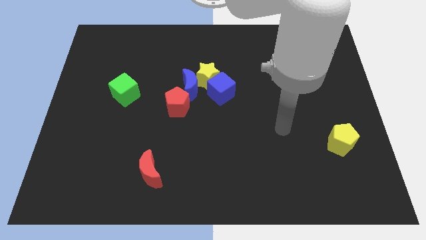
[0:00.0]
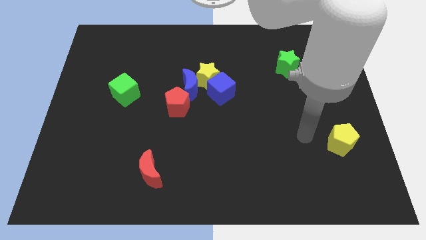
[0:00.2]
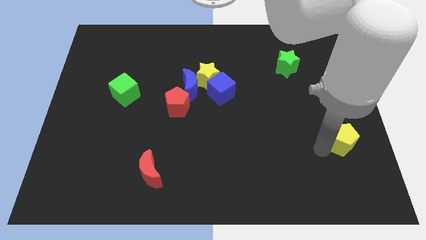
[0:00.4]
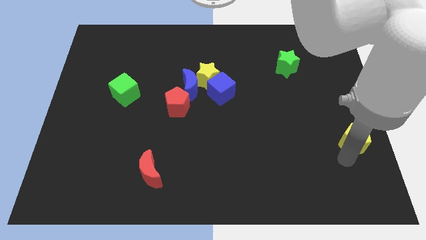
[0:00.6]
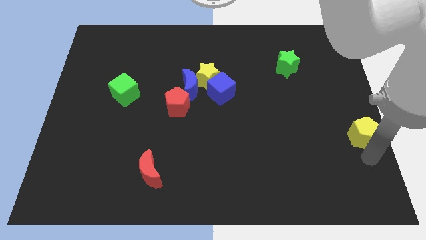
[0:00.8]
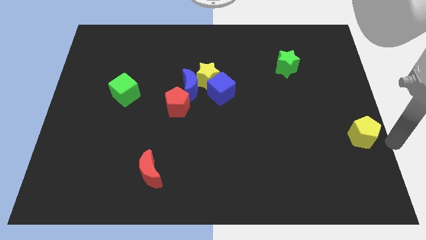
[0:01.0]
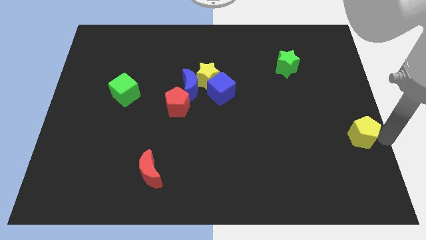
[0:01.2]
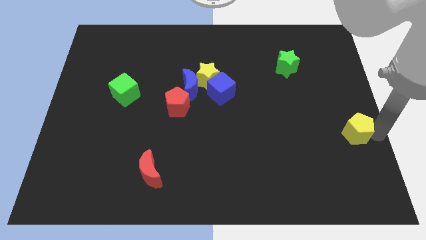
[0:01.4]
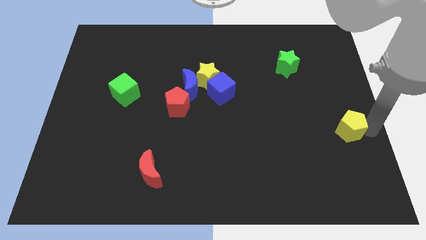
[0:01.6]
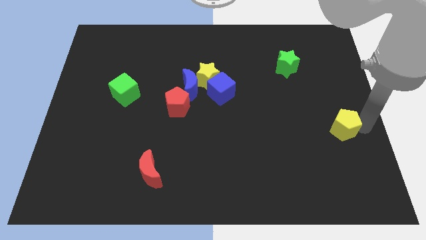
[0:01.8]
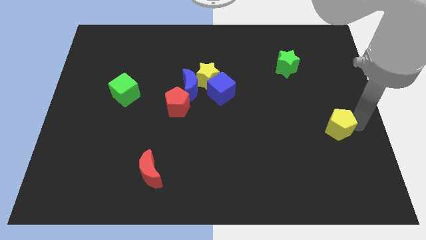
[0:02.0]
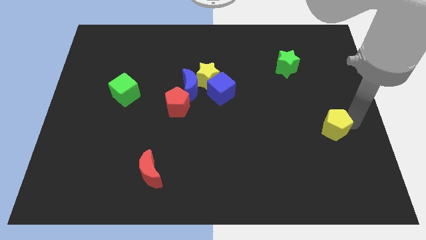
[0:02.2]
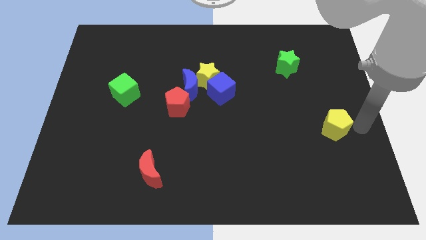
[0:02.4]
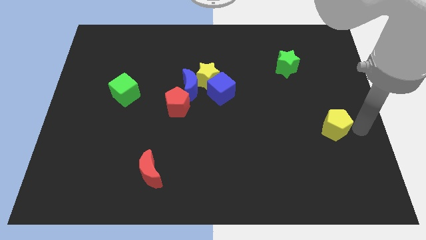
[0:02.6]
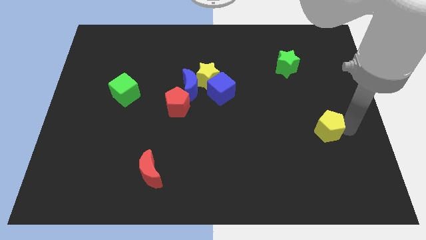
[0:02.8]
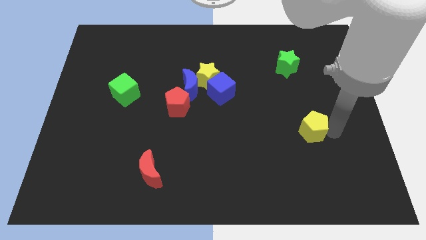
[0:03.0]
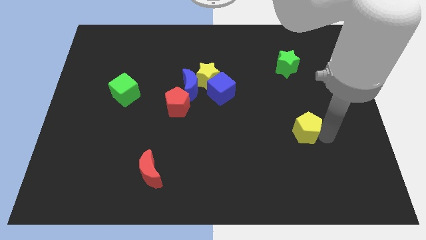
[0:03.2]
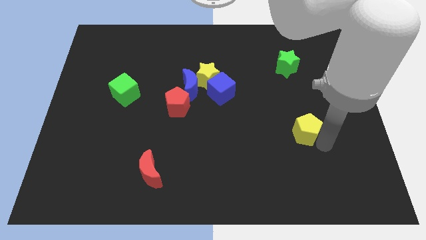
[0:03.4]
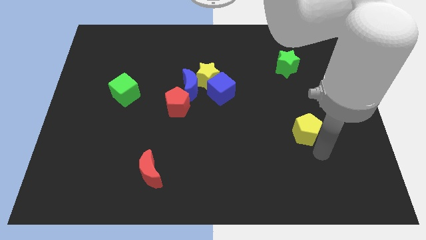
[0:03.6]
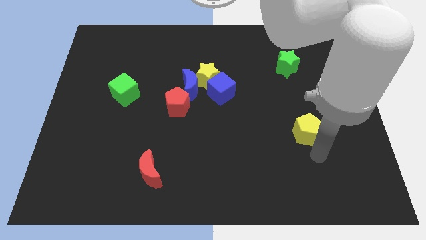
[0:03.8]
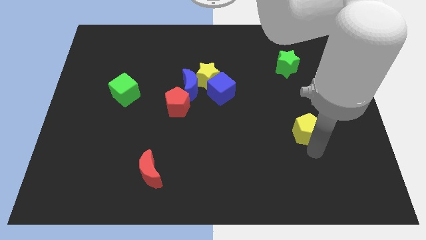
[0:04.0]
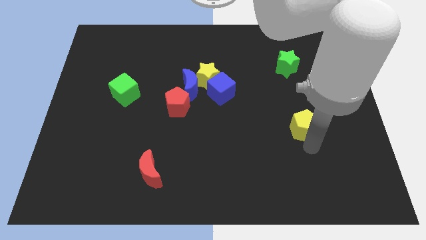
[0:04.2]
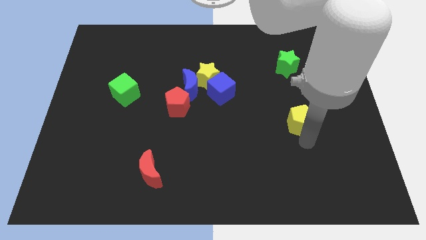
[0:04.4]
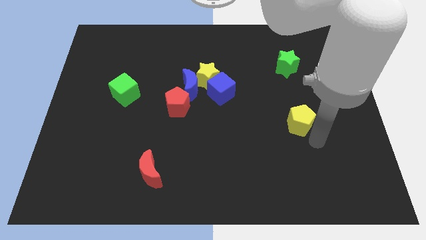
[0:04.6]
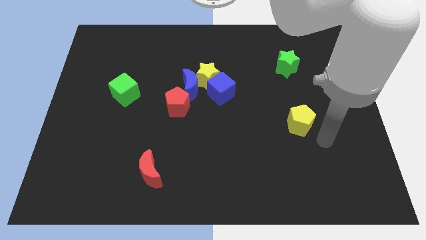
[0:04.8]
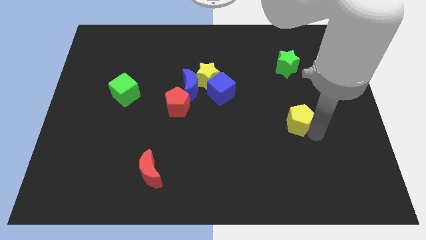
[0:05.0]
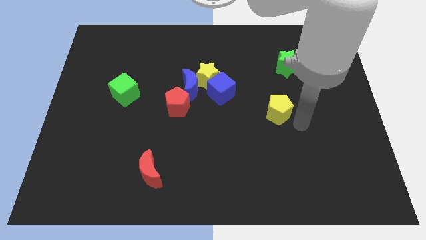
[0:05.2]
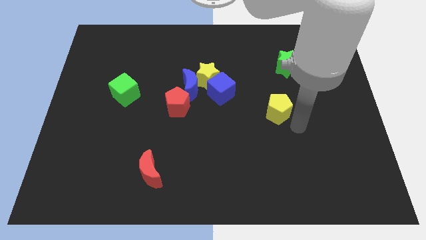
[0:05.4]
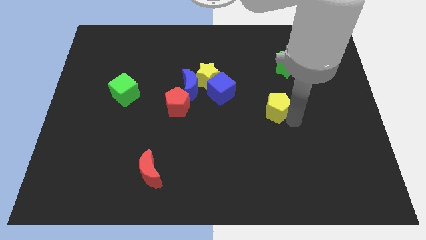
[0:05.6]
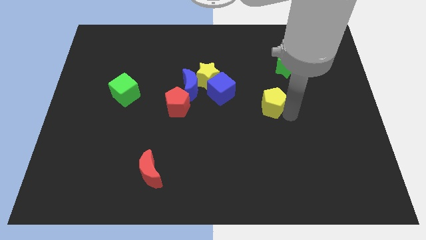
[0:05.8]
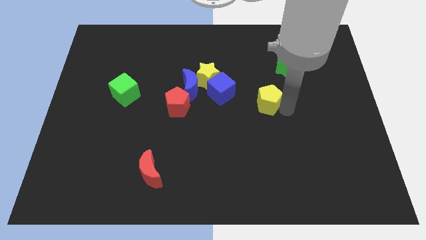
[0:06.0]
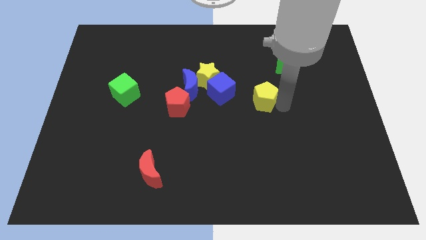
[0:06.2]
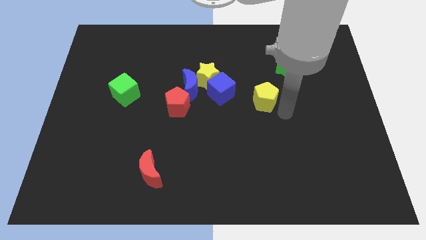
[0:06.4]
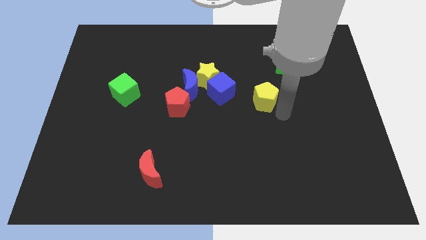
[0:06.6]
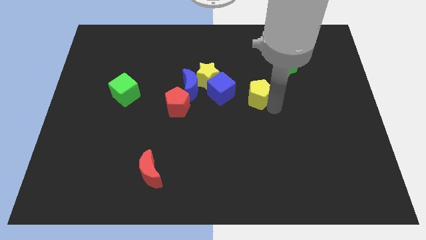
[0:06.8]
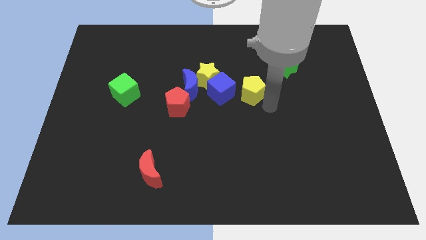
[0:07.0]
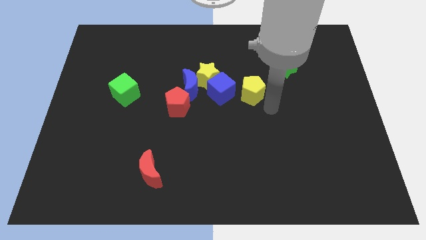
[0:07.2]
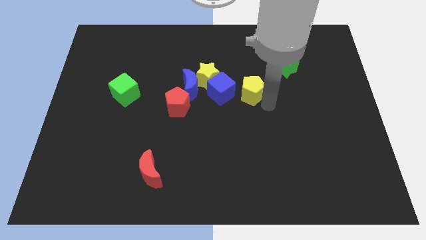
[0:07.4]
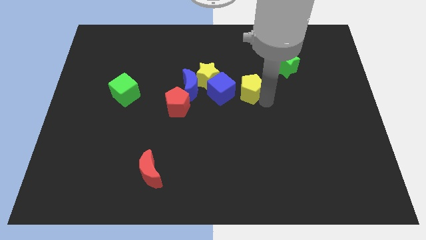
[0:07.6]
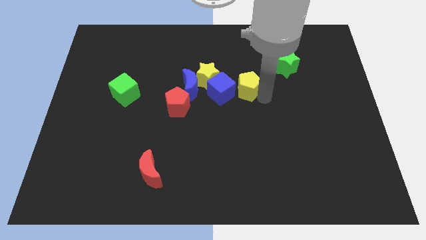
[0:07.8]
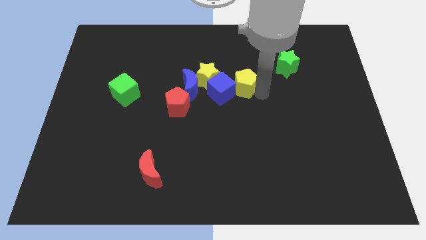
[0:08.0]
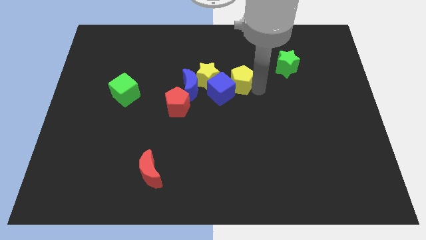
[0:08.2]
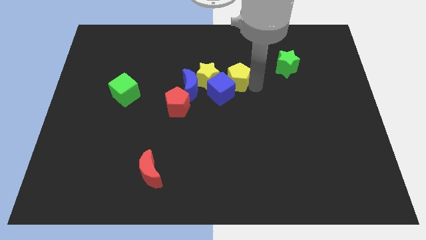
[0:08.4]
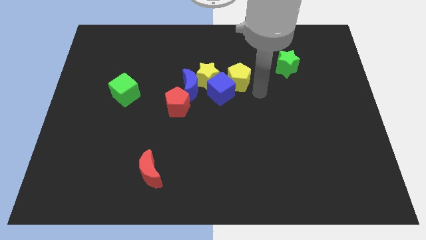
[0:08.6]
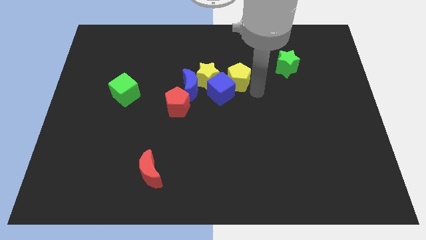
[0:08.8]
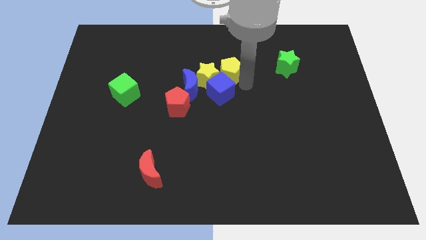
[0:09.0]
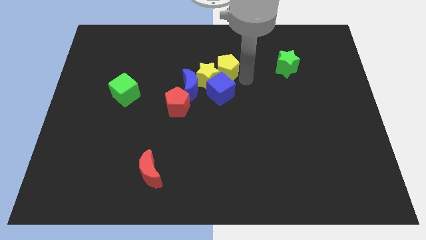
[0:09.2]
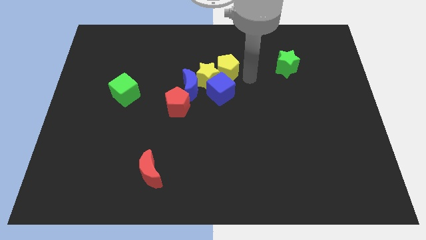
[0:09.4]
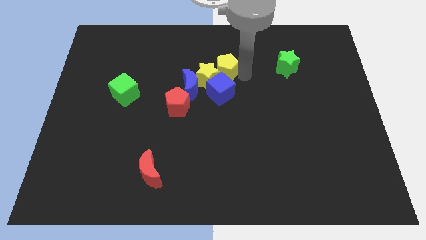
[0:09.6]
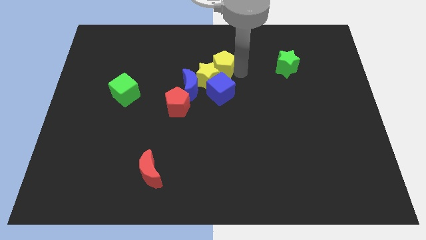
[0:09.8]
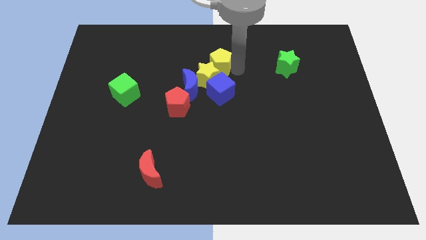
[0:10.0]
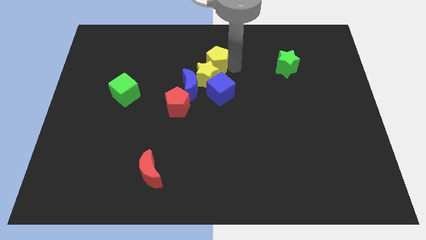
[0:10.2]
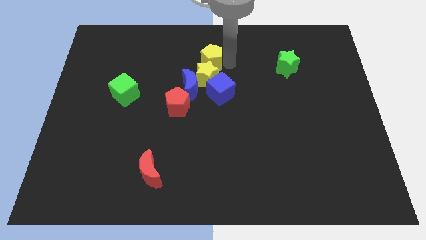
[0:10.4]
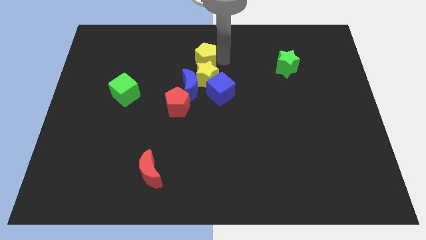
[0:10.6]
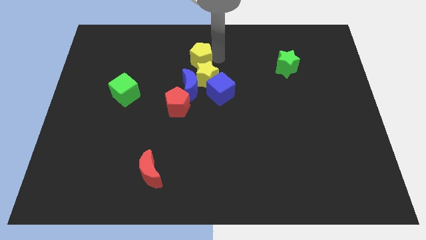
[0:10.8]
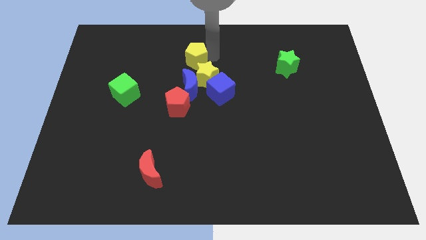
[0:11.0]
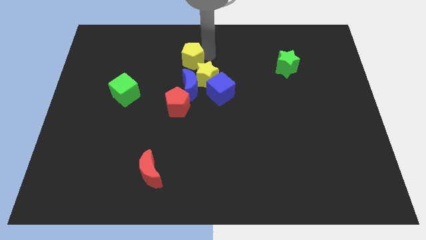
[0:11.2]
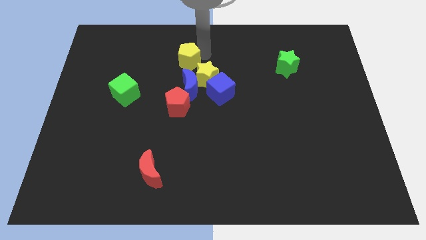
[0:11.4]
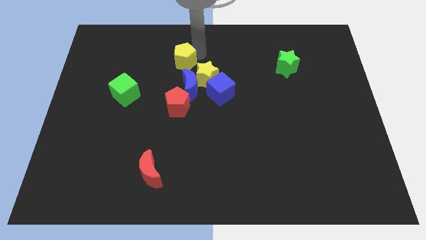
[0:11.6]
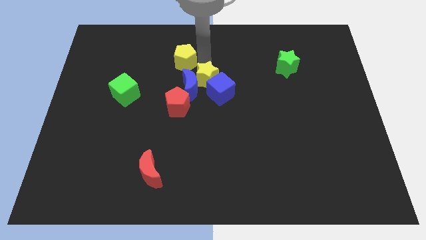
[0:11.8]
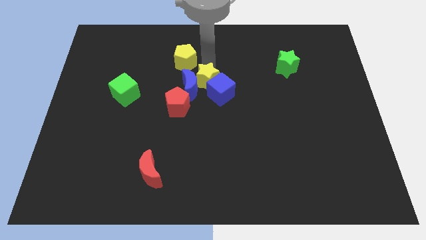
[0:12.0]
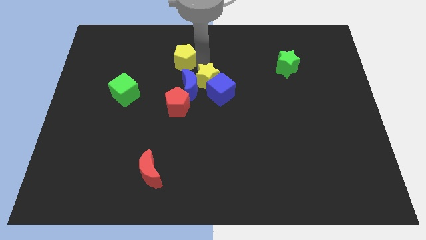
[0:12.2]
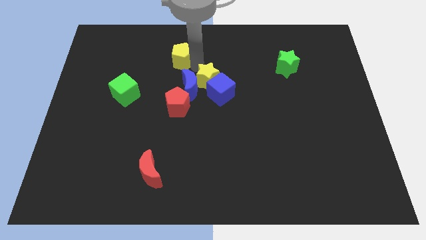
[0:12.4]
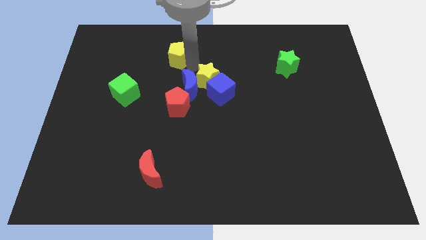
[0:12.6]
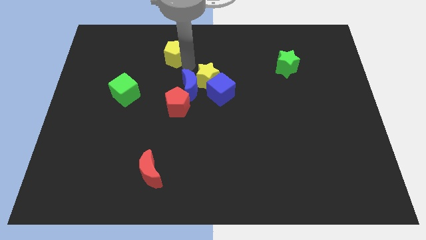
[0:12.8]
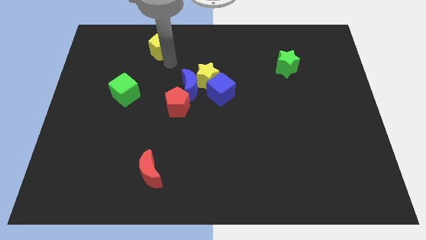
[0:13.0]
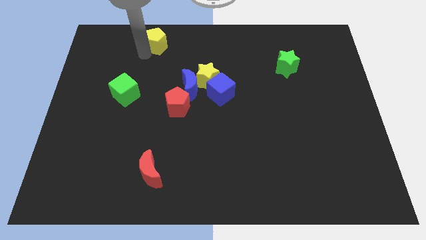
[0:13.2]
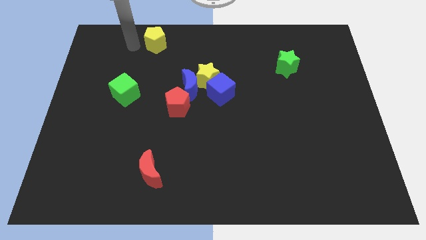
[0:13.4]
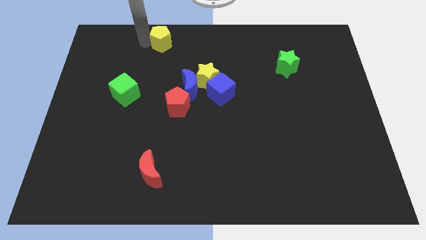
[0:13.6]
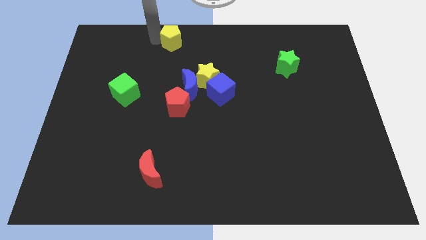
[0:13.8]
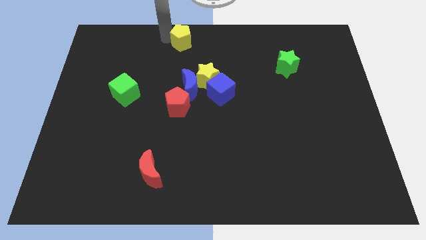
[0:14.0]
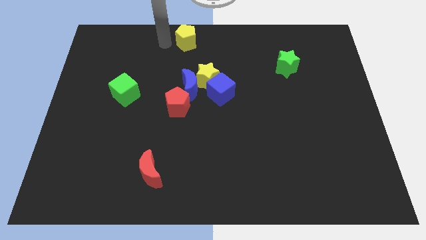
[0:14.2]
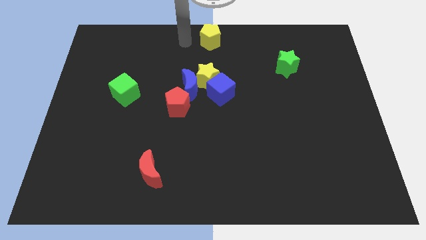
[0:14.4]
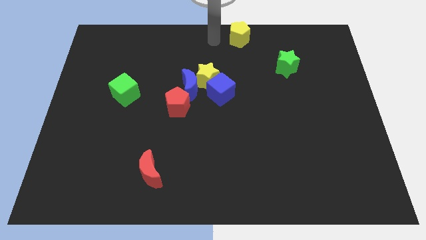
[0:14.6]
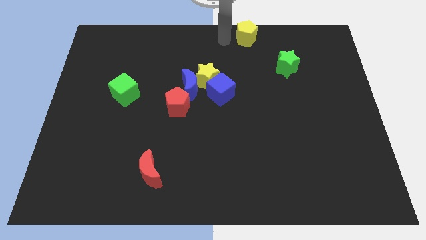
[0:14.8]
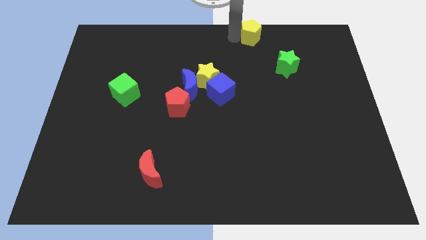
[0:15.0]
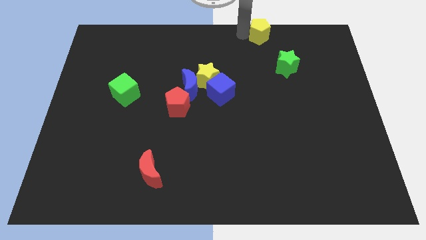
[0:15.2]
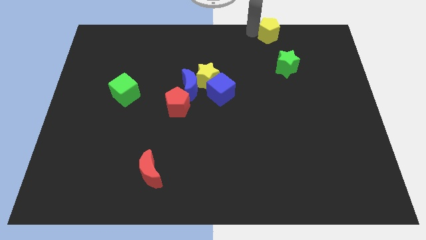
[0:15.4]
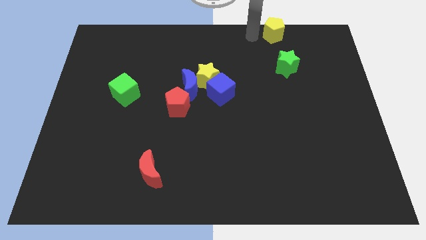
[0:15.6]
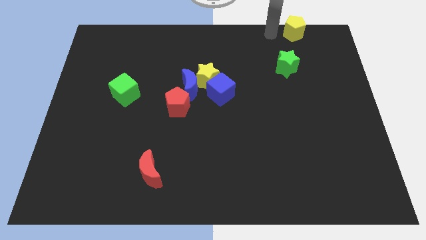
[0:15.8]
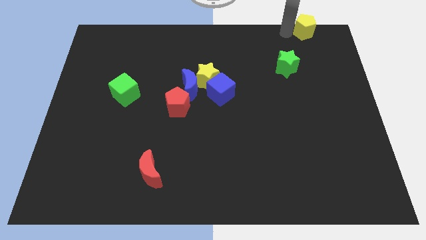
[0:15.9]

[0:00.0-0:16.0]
push the yellow pentagon to the top right corner
